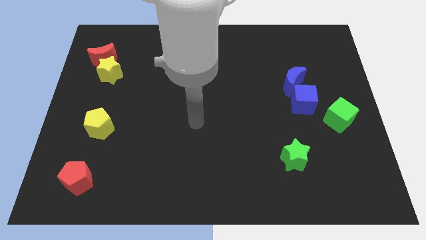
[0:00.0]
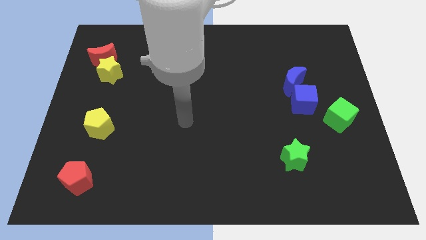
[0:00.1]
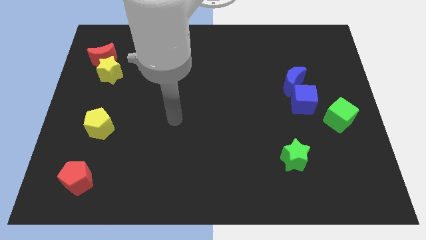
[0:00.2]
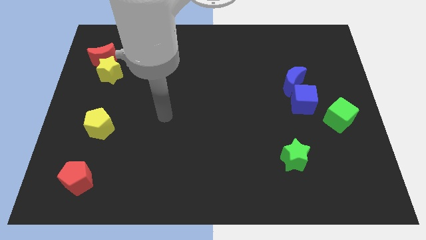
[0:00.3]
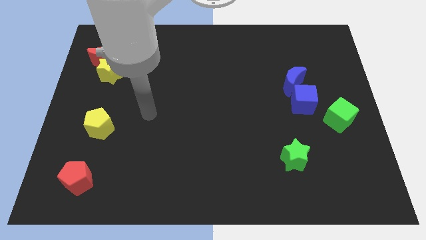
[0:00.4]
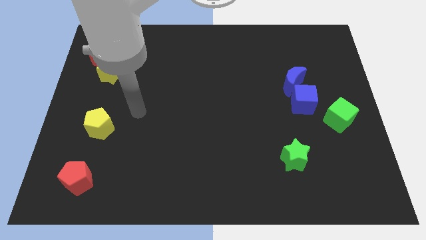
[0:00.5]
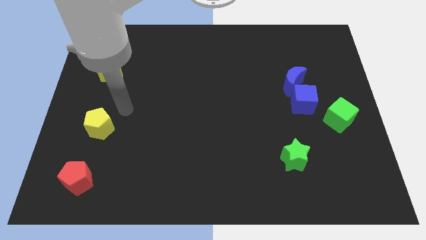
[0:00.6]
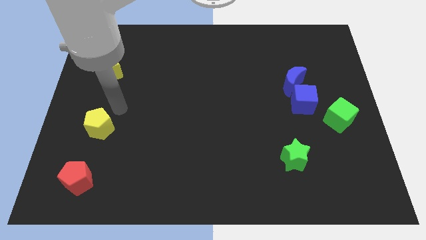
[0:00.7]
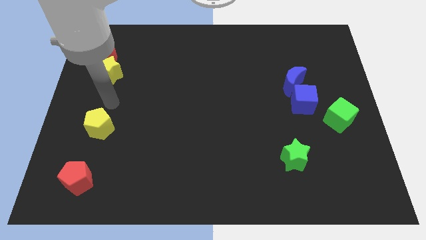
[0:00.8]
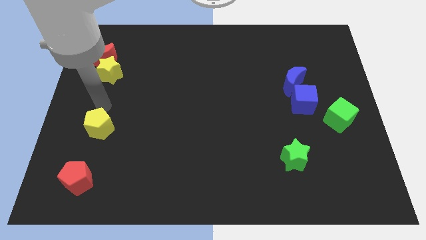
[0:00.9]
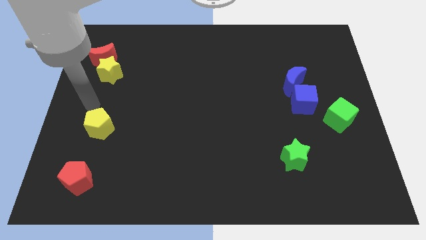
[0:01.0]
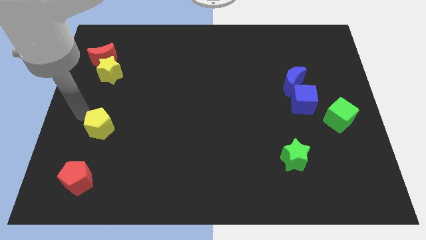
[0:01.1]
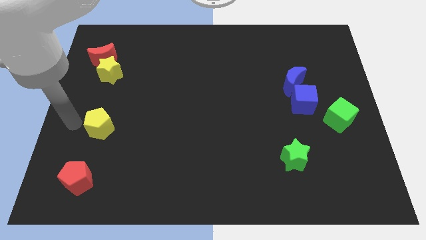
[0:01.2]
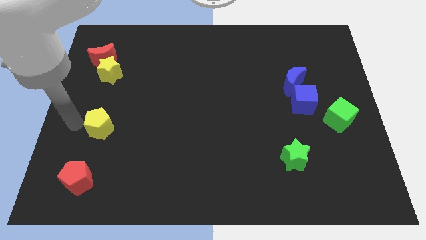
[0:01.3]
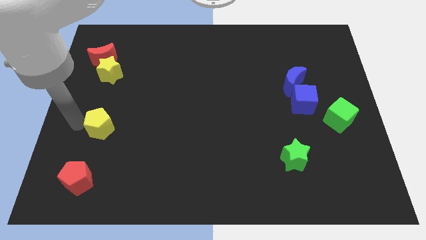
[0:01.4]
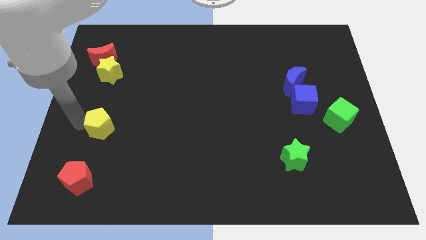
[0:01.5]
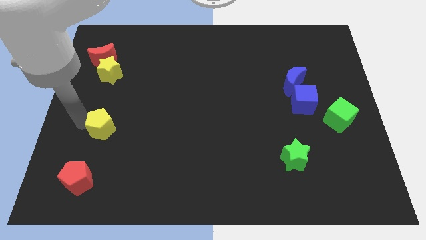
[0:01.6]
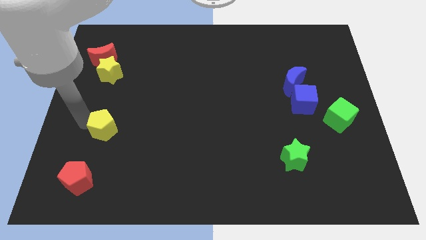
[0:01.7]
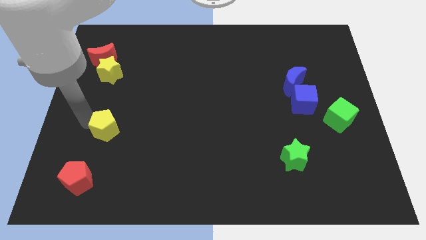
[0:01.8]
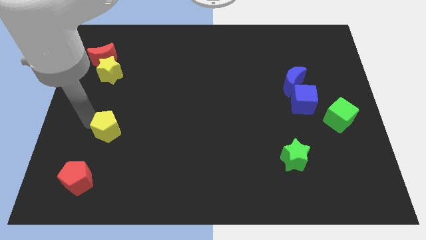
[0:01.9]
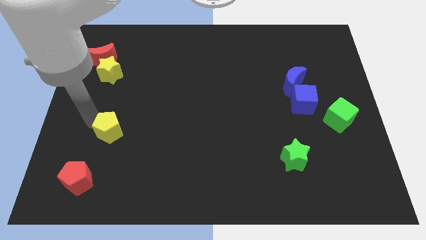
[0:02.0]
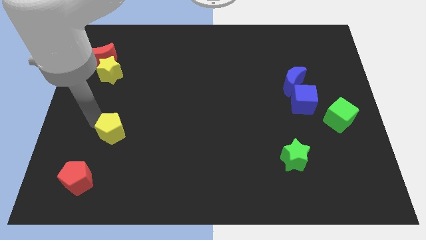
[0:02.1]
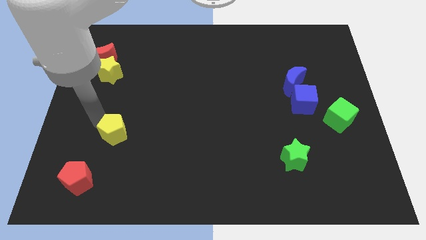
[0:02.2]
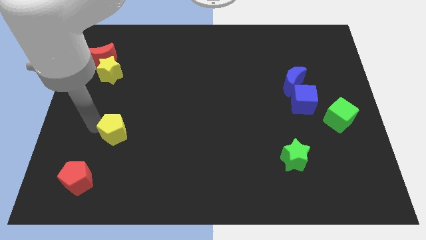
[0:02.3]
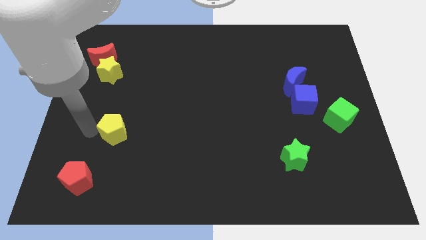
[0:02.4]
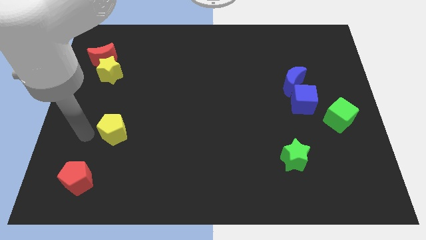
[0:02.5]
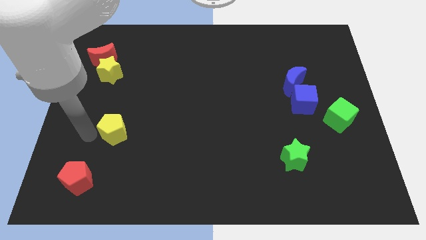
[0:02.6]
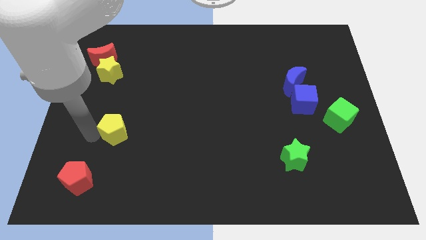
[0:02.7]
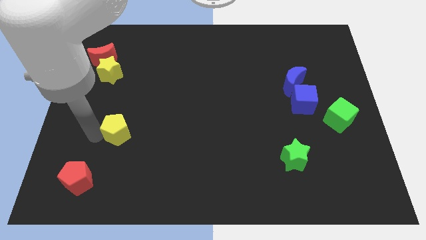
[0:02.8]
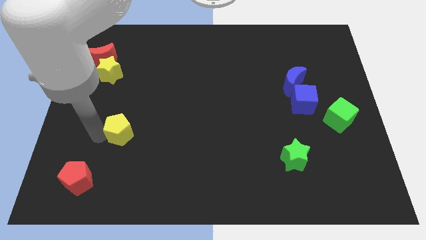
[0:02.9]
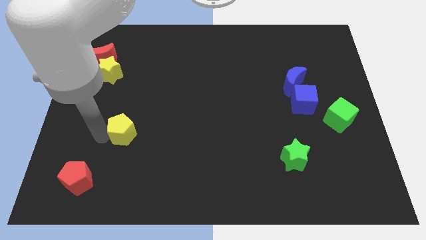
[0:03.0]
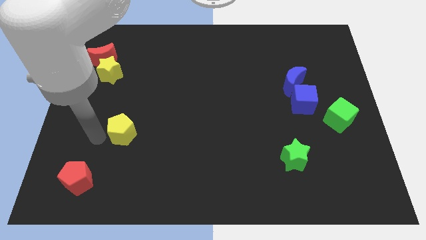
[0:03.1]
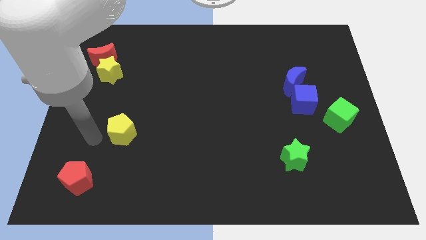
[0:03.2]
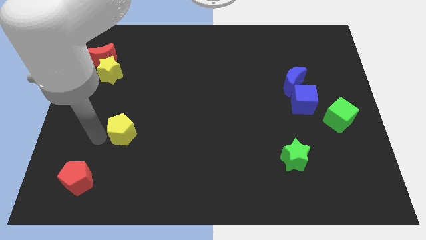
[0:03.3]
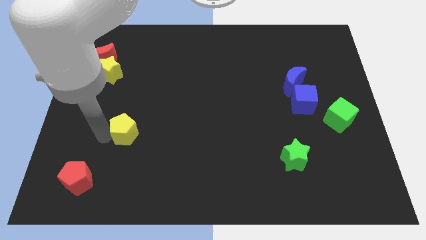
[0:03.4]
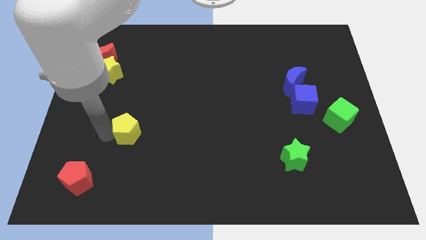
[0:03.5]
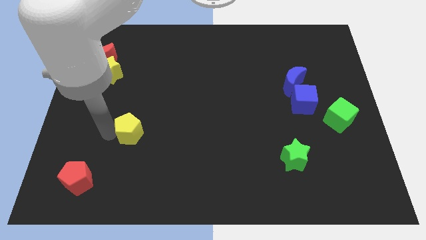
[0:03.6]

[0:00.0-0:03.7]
slightly move the yellow pentagon right

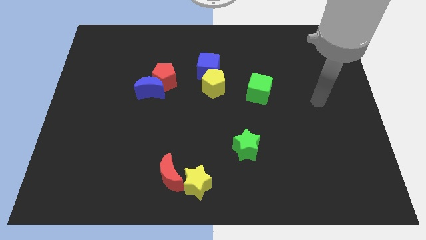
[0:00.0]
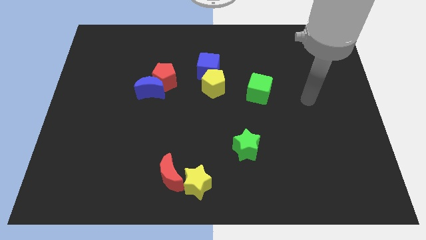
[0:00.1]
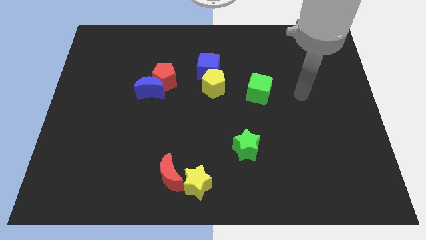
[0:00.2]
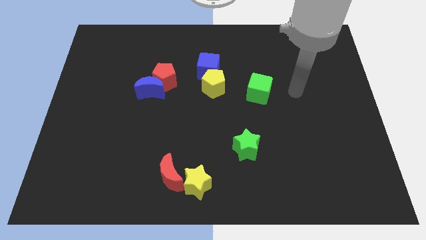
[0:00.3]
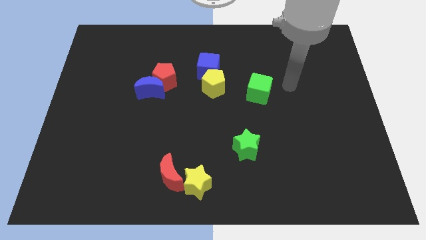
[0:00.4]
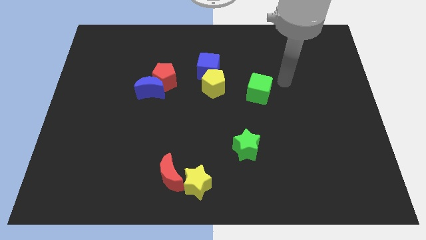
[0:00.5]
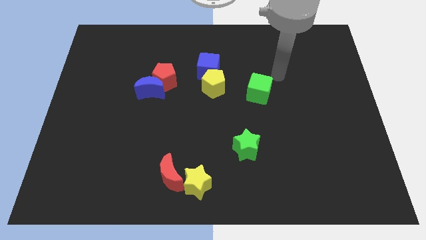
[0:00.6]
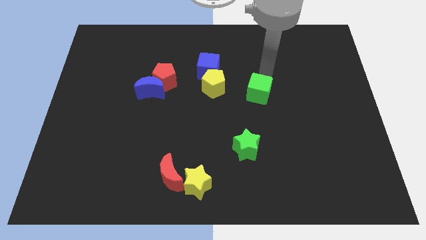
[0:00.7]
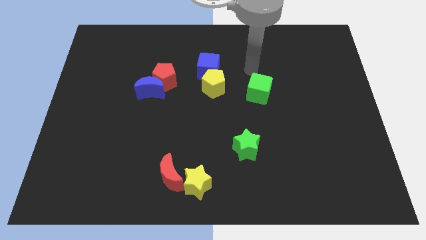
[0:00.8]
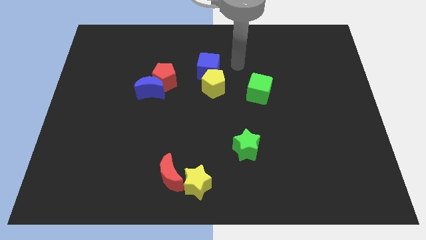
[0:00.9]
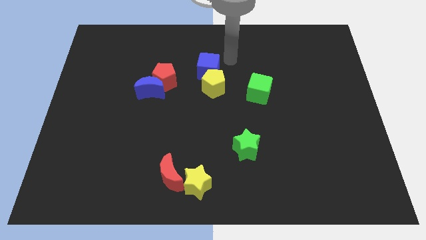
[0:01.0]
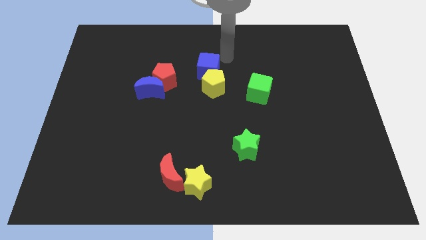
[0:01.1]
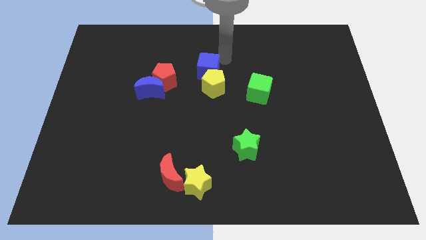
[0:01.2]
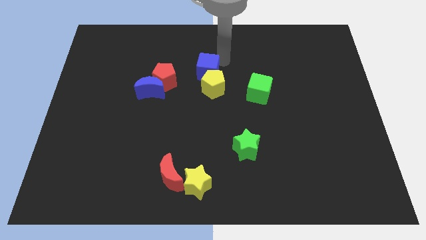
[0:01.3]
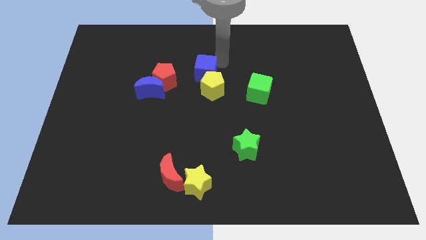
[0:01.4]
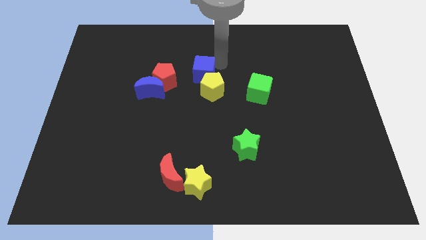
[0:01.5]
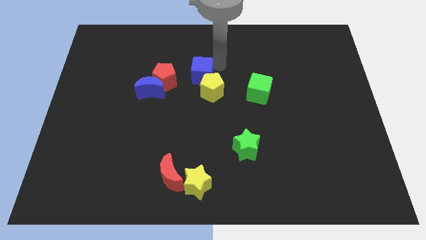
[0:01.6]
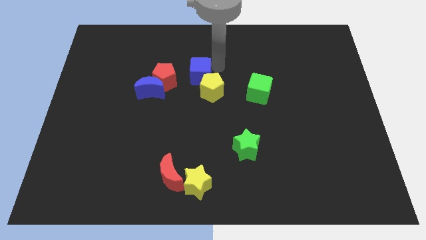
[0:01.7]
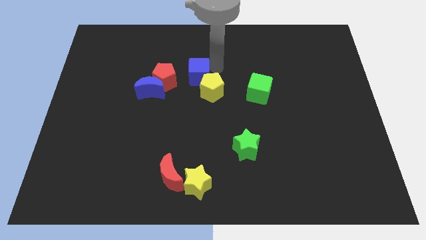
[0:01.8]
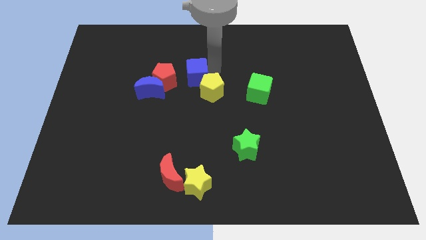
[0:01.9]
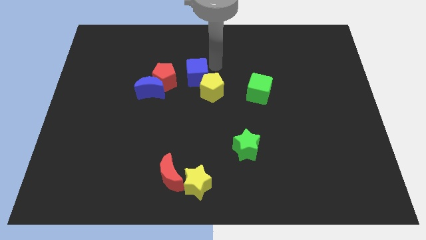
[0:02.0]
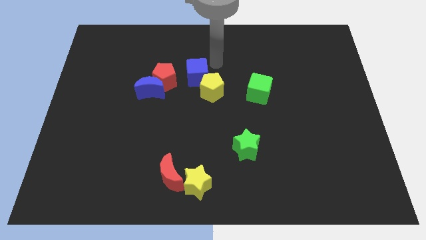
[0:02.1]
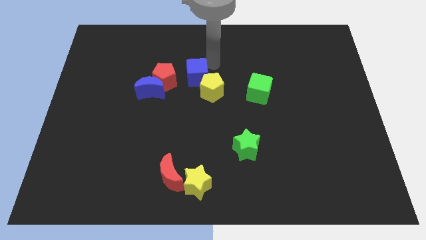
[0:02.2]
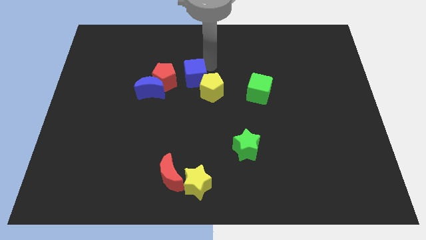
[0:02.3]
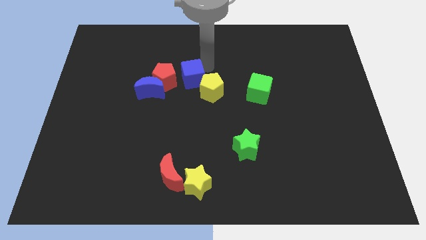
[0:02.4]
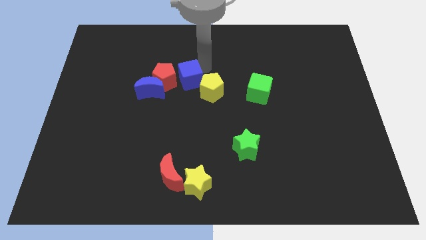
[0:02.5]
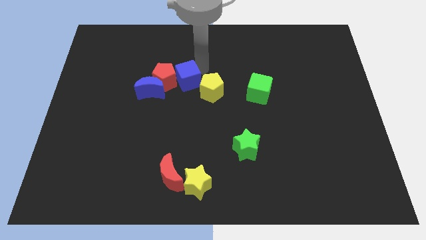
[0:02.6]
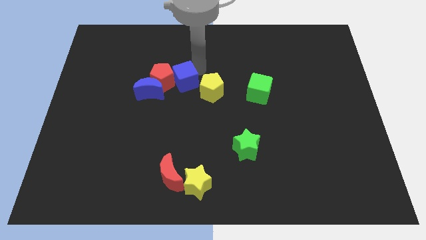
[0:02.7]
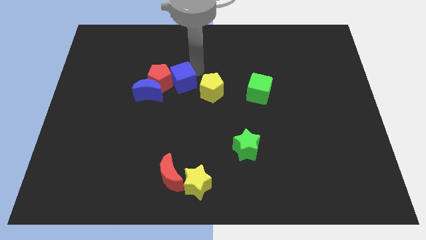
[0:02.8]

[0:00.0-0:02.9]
push the blue cube a little bit downwards and to the left diagonally

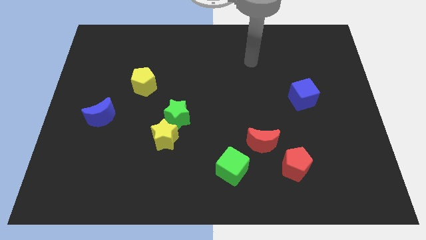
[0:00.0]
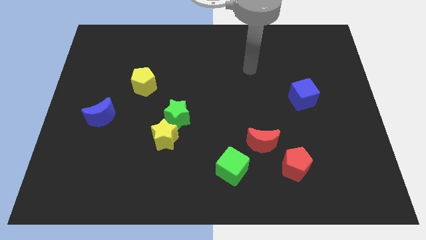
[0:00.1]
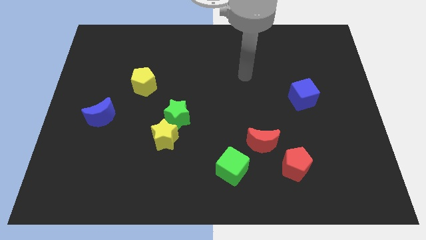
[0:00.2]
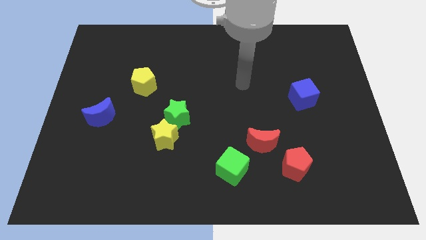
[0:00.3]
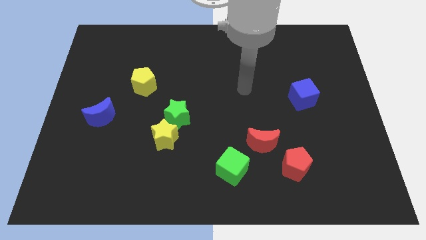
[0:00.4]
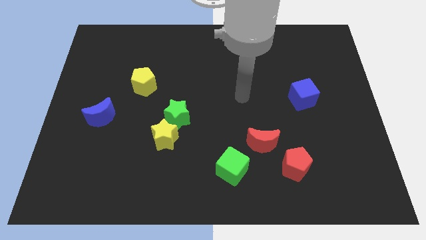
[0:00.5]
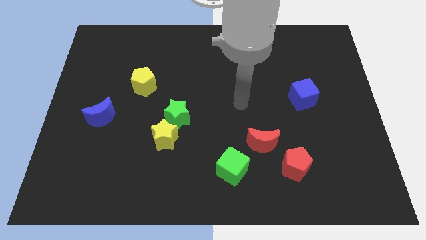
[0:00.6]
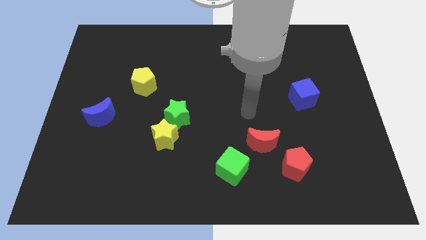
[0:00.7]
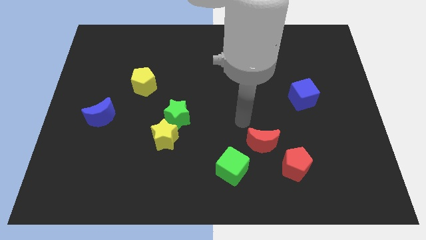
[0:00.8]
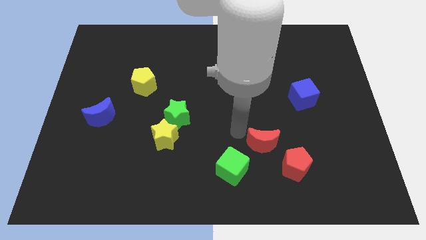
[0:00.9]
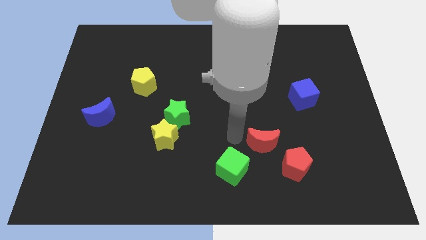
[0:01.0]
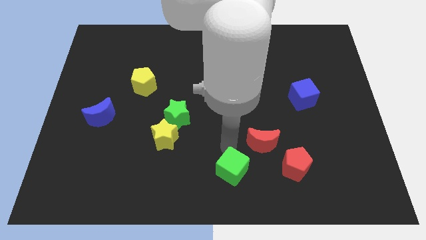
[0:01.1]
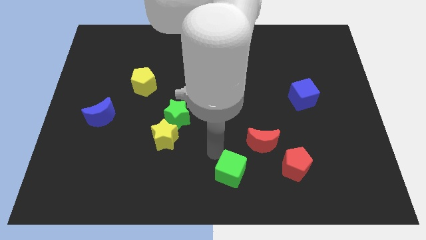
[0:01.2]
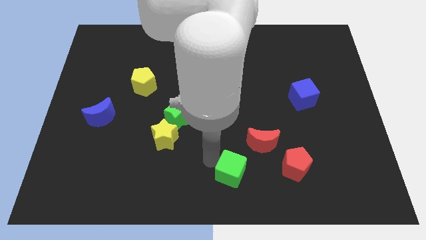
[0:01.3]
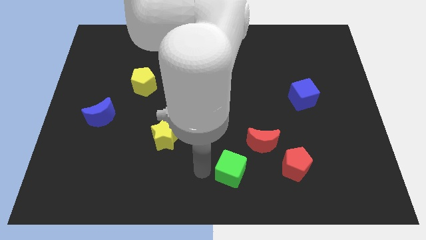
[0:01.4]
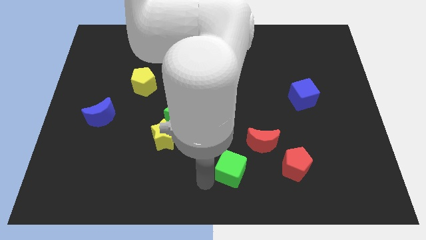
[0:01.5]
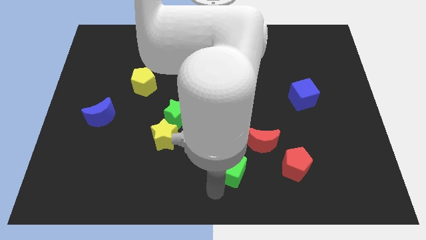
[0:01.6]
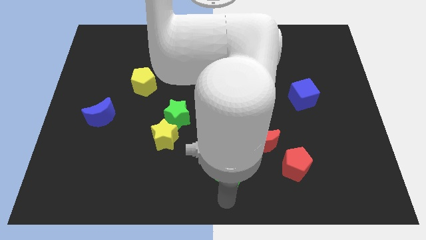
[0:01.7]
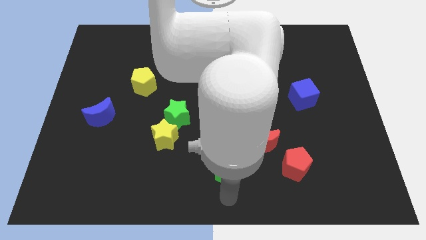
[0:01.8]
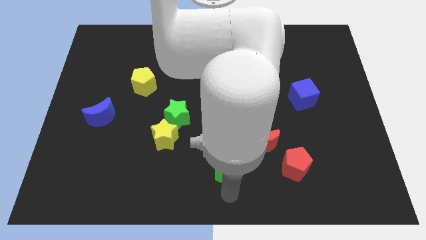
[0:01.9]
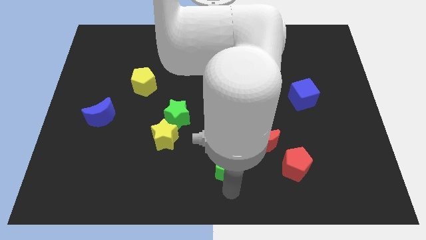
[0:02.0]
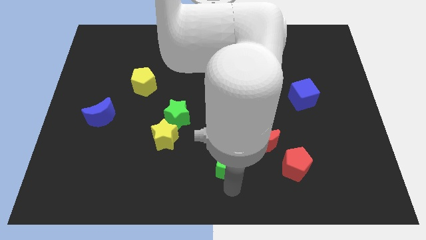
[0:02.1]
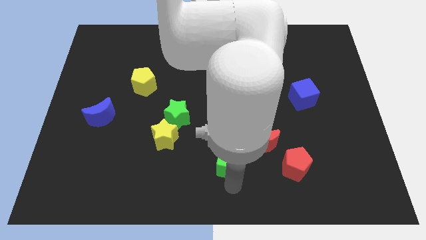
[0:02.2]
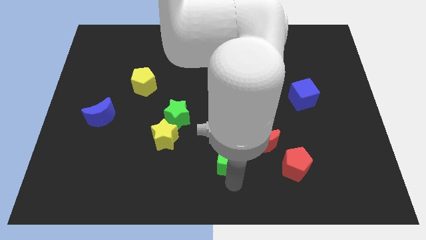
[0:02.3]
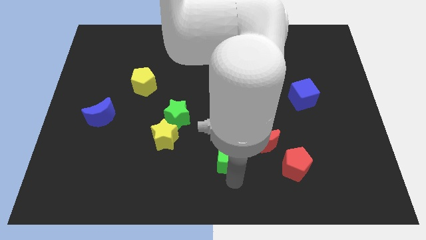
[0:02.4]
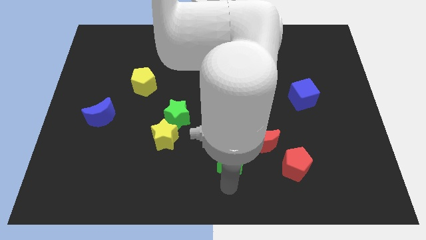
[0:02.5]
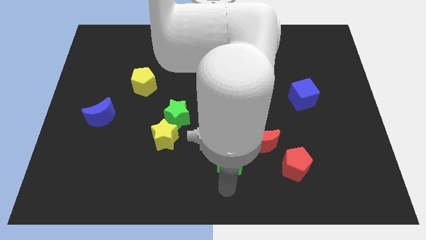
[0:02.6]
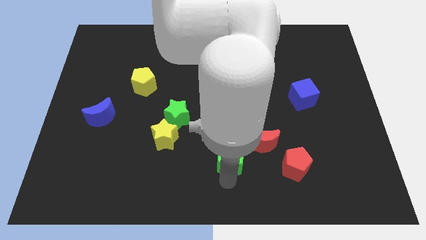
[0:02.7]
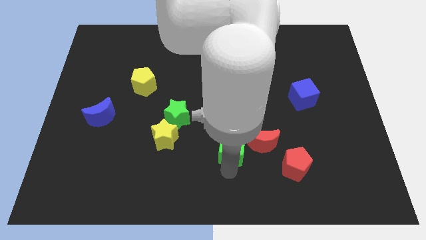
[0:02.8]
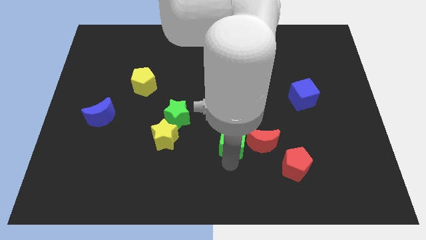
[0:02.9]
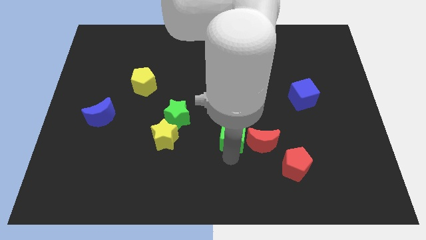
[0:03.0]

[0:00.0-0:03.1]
slightly move the green cube up
